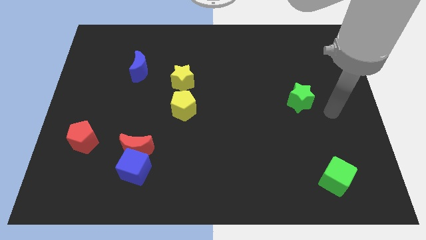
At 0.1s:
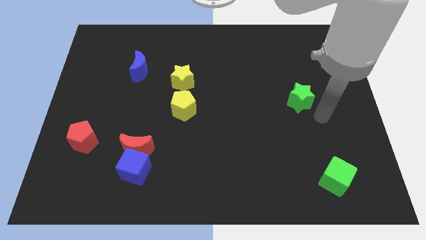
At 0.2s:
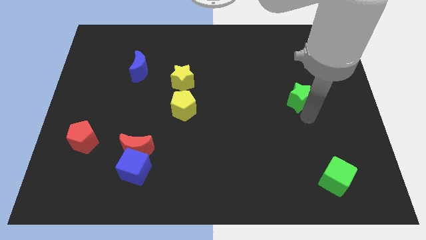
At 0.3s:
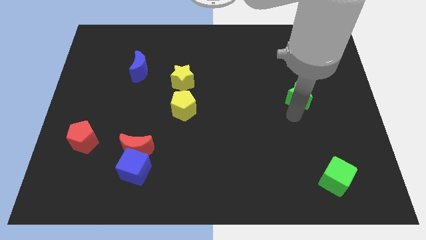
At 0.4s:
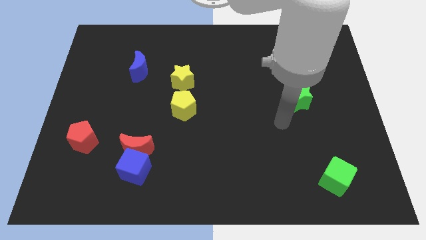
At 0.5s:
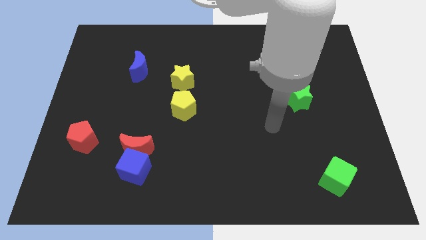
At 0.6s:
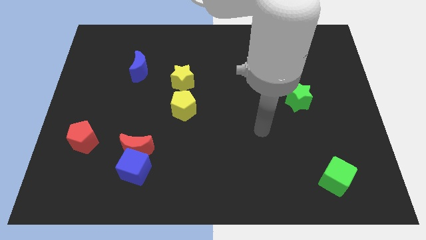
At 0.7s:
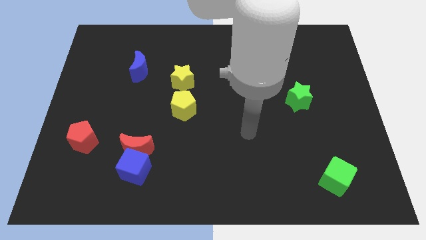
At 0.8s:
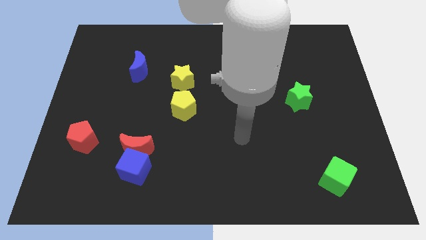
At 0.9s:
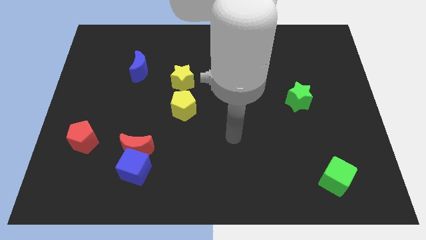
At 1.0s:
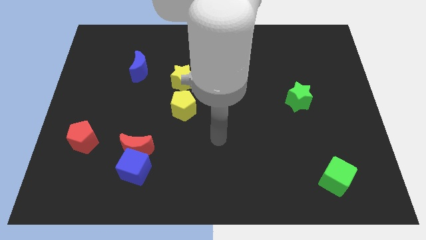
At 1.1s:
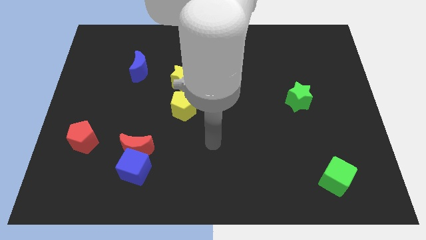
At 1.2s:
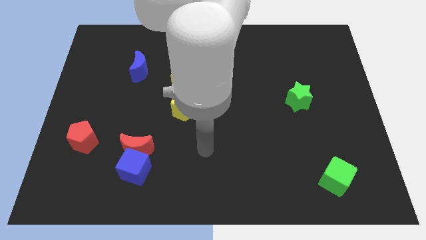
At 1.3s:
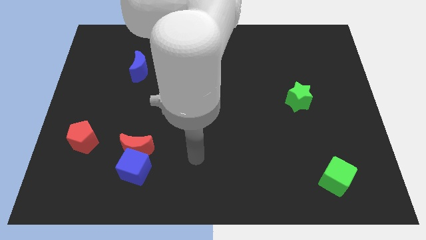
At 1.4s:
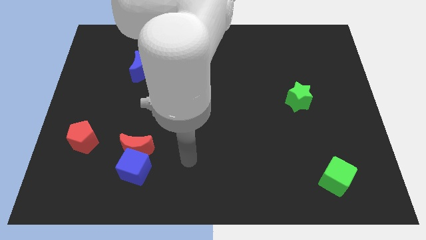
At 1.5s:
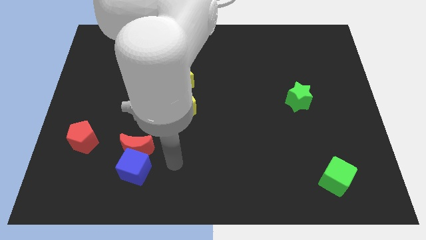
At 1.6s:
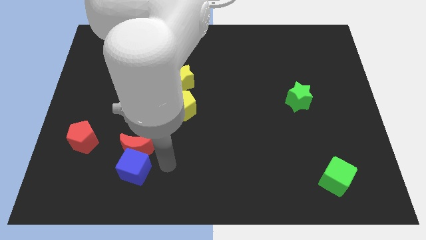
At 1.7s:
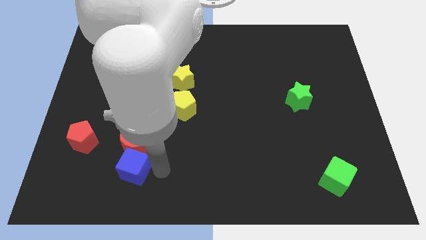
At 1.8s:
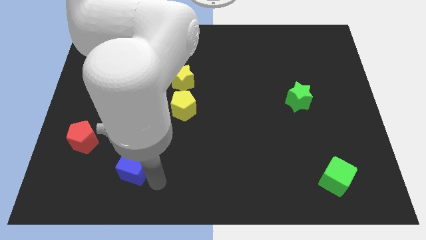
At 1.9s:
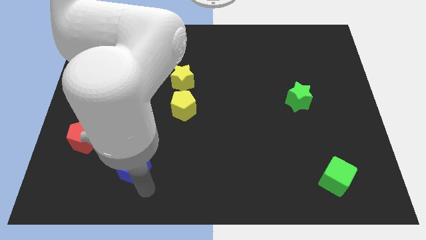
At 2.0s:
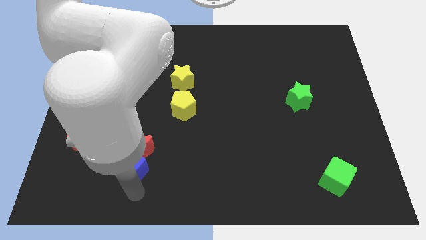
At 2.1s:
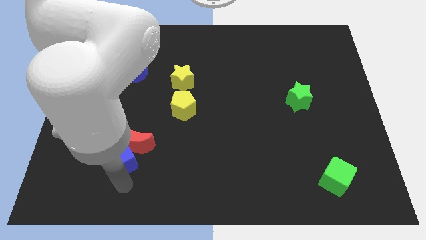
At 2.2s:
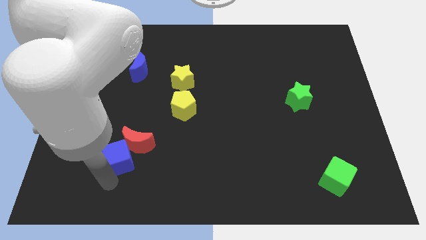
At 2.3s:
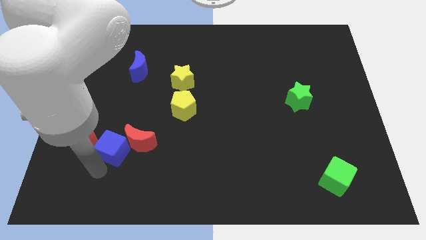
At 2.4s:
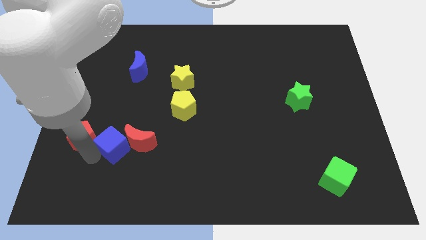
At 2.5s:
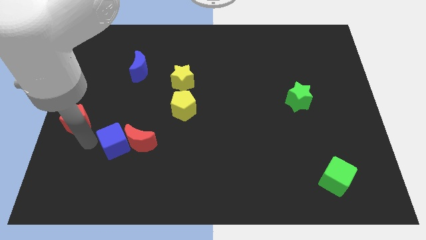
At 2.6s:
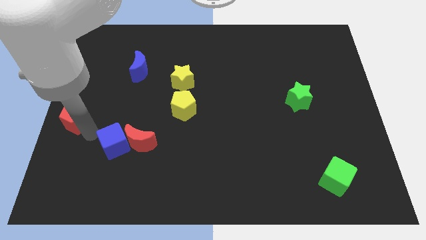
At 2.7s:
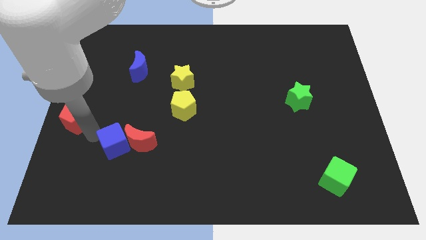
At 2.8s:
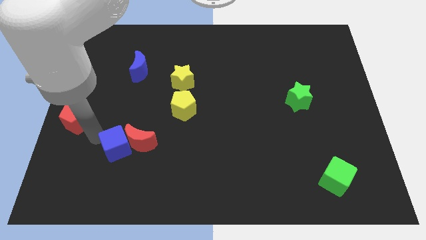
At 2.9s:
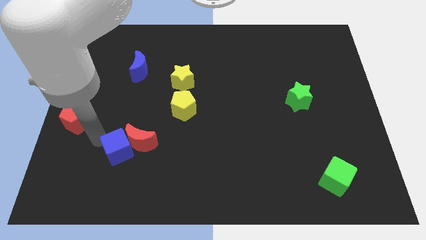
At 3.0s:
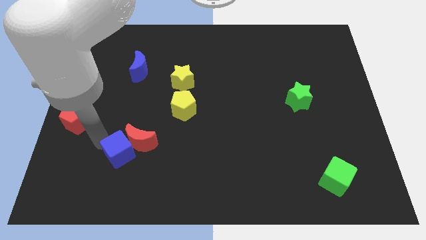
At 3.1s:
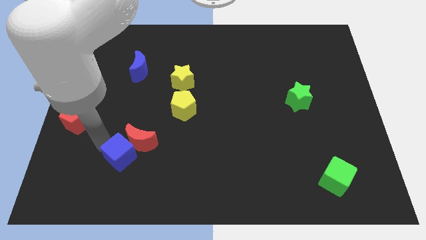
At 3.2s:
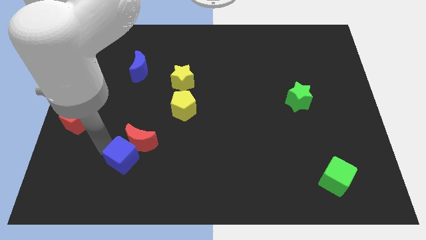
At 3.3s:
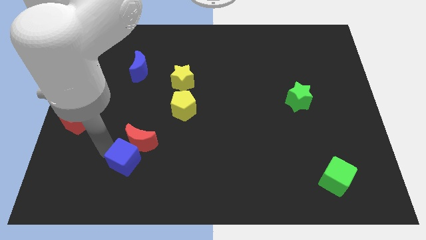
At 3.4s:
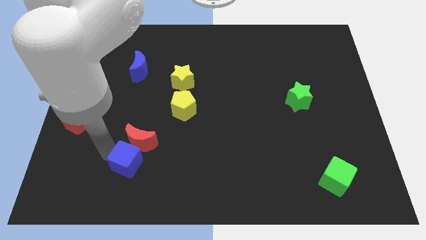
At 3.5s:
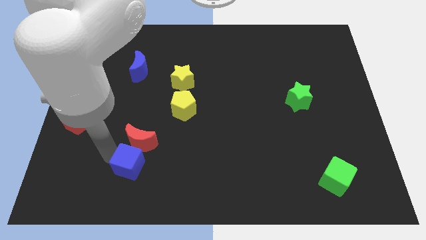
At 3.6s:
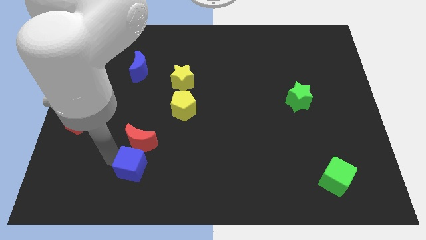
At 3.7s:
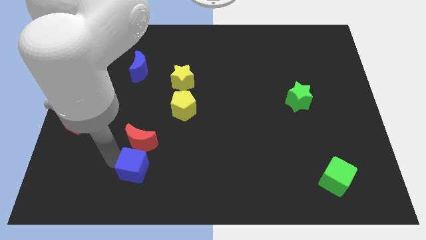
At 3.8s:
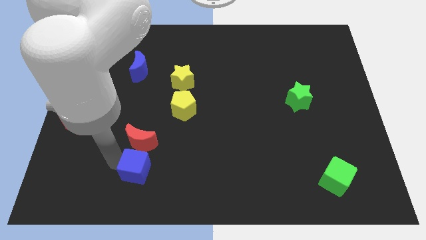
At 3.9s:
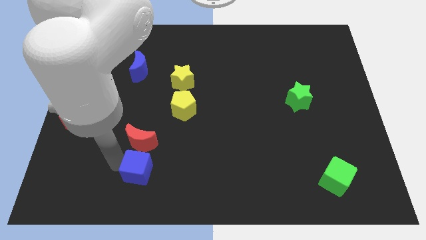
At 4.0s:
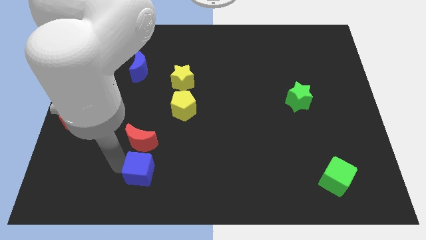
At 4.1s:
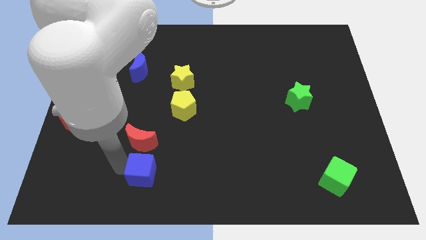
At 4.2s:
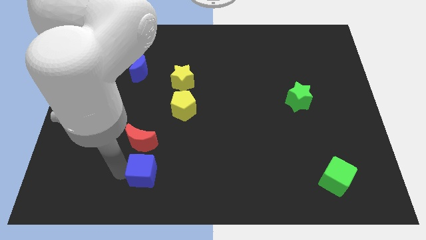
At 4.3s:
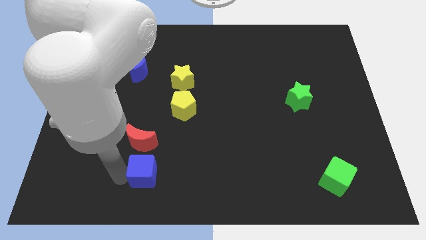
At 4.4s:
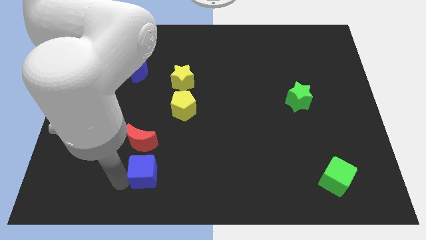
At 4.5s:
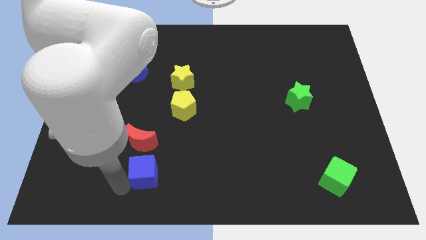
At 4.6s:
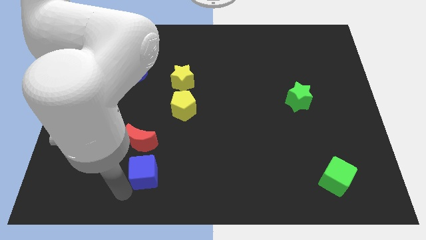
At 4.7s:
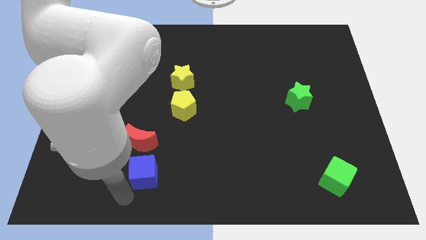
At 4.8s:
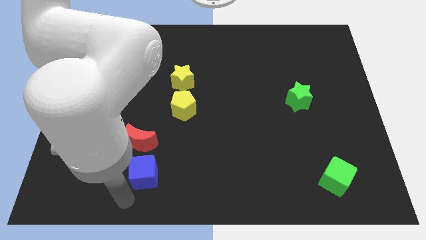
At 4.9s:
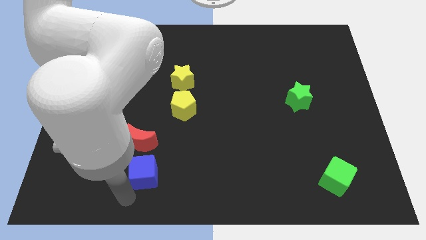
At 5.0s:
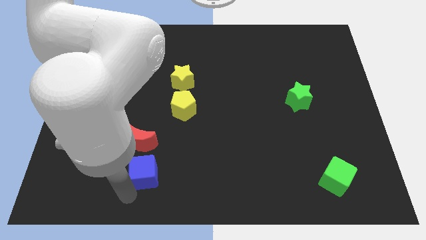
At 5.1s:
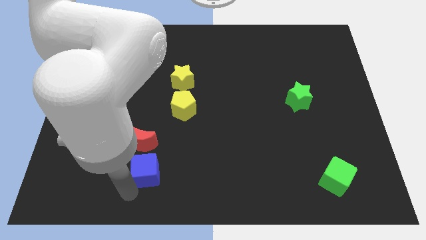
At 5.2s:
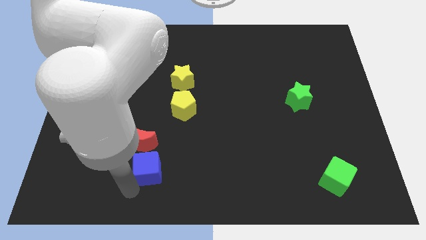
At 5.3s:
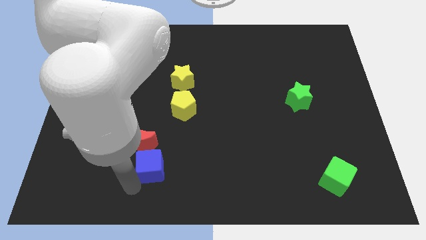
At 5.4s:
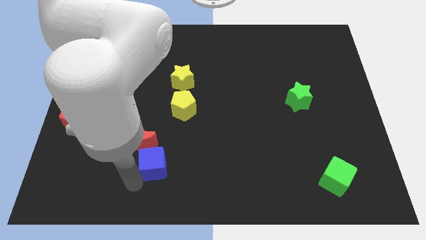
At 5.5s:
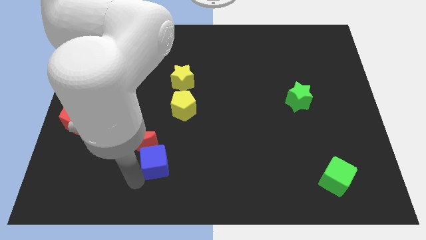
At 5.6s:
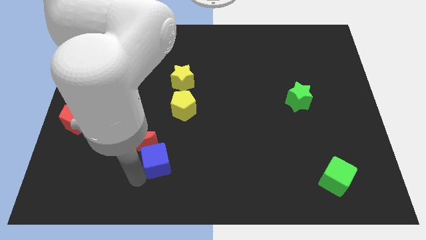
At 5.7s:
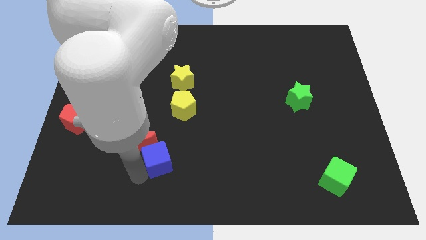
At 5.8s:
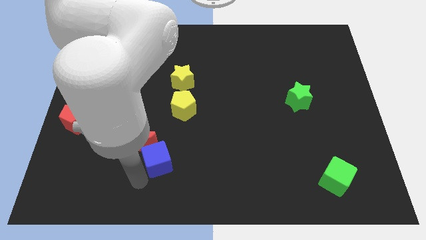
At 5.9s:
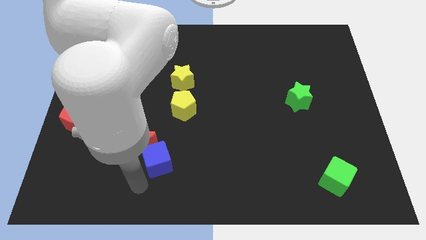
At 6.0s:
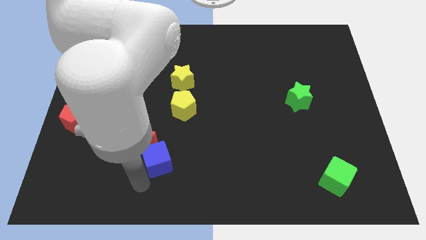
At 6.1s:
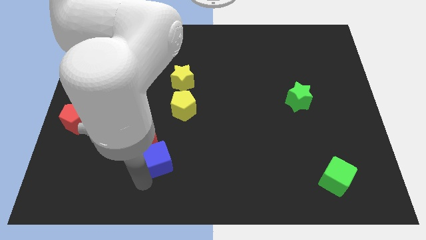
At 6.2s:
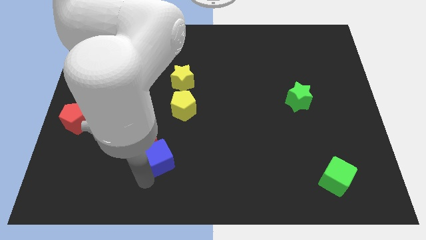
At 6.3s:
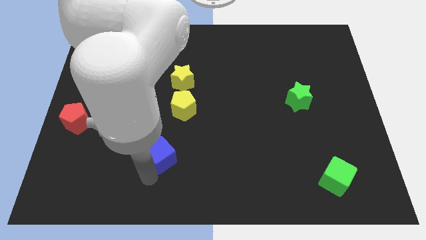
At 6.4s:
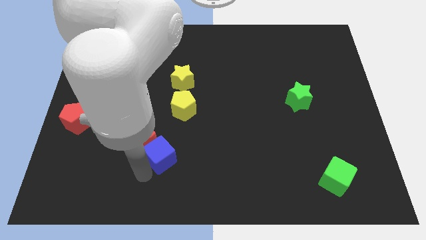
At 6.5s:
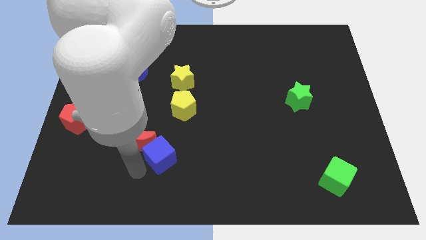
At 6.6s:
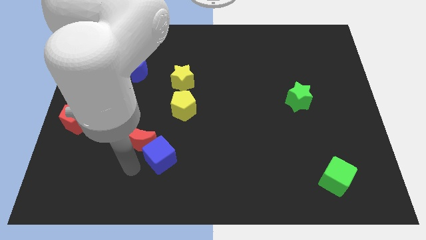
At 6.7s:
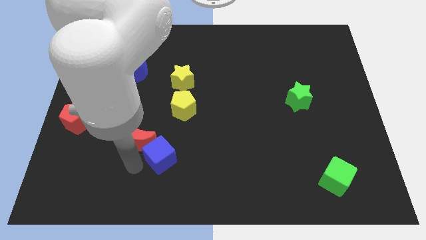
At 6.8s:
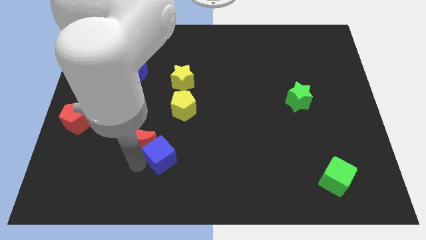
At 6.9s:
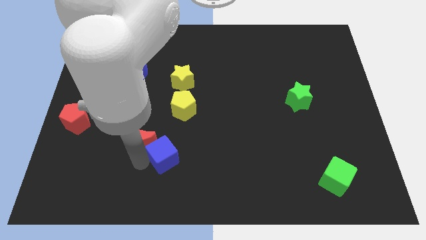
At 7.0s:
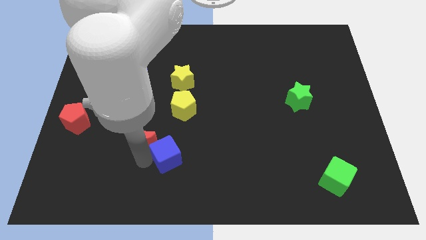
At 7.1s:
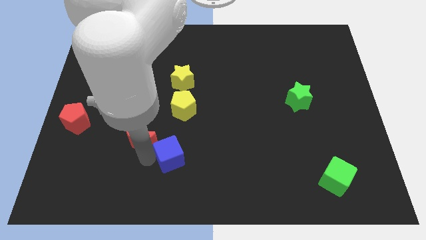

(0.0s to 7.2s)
slightly push the blue cube diagonally upwards and right

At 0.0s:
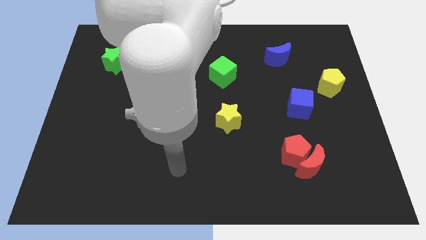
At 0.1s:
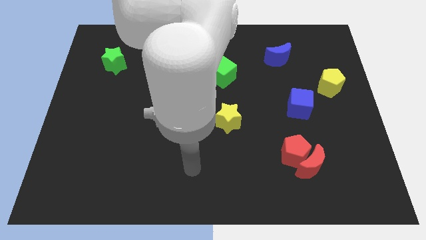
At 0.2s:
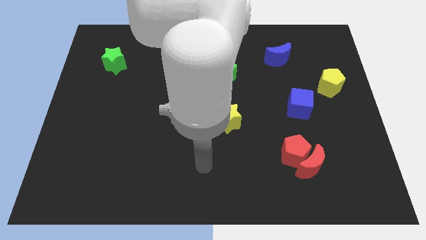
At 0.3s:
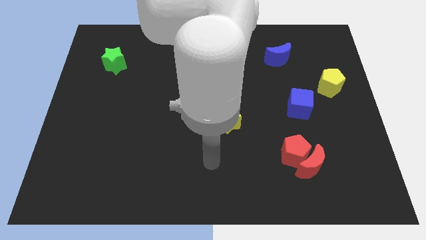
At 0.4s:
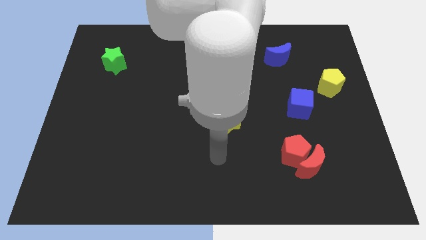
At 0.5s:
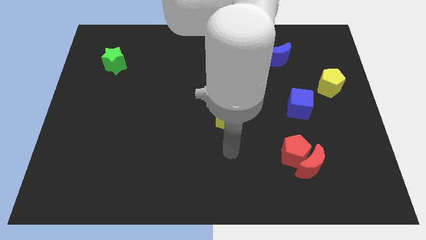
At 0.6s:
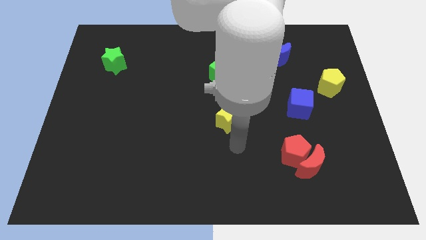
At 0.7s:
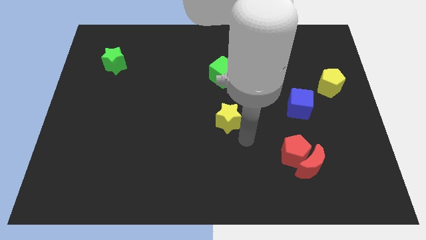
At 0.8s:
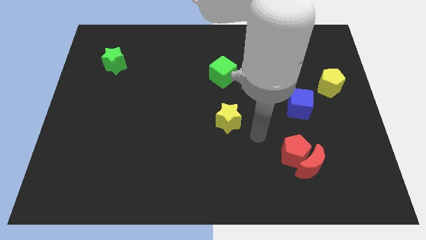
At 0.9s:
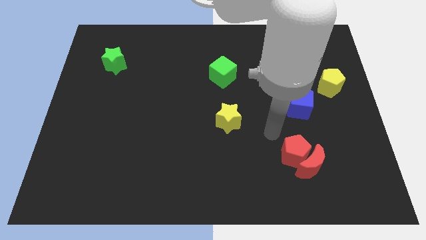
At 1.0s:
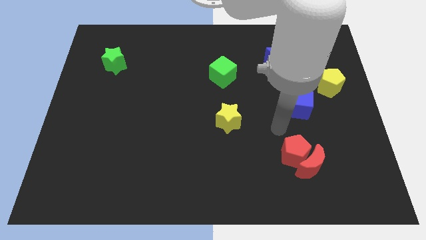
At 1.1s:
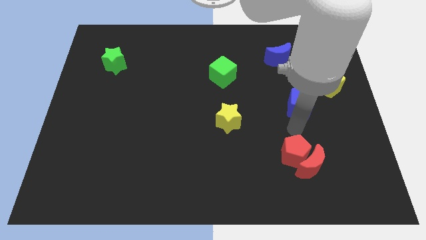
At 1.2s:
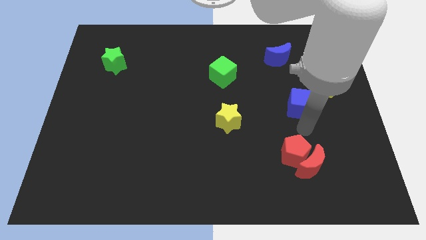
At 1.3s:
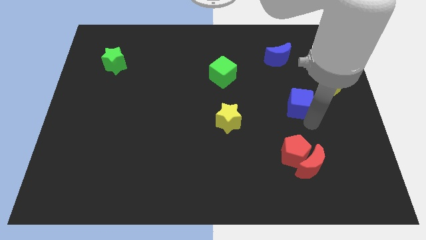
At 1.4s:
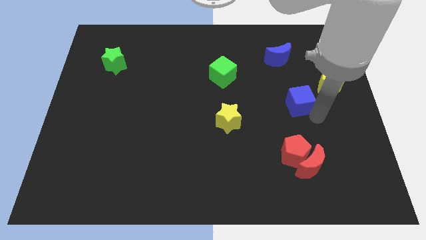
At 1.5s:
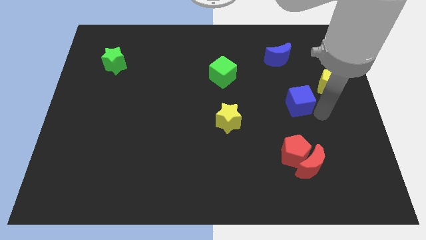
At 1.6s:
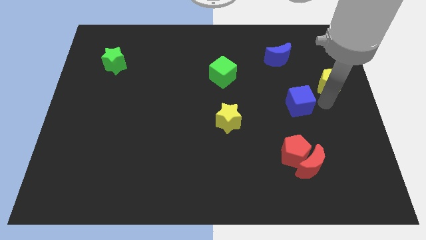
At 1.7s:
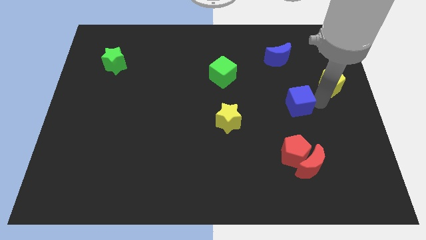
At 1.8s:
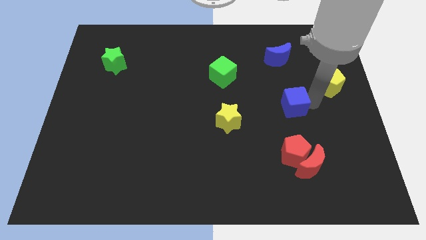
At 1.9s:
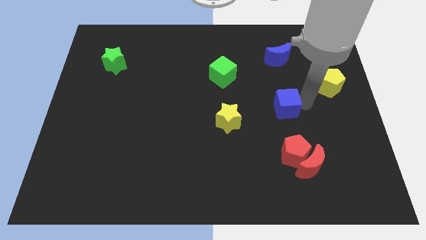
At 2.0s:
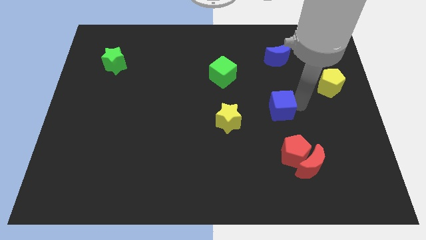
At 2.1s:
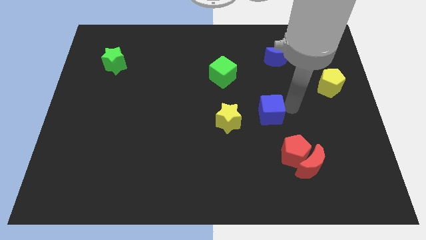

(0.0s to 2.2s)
slide the blue cube to the left a little bit
